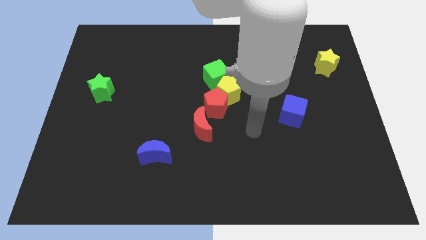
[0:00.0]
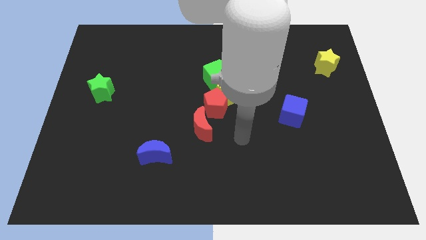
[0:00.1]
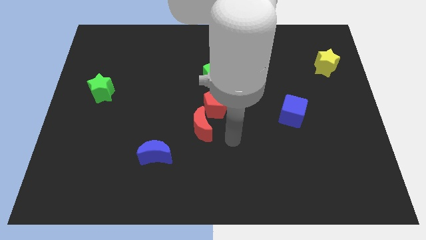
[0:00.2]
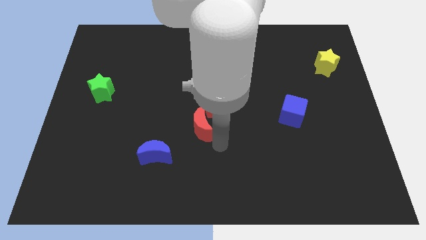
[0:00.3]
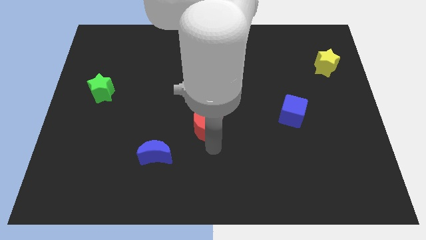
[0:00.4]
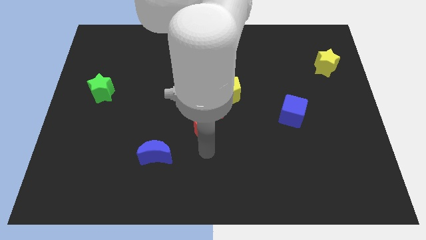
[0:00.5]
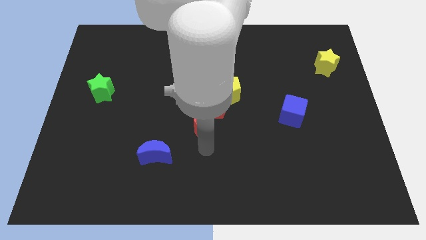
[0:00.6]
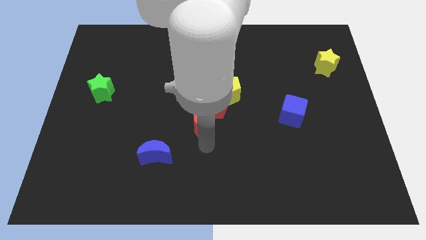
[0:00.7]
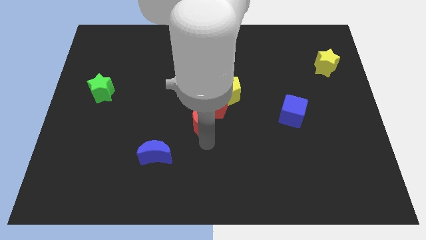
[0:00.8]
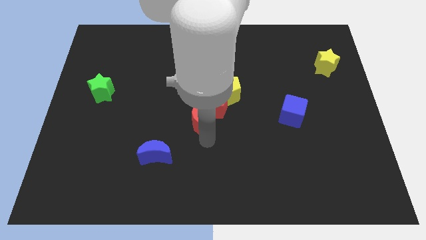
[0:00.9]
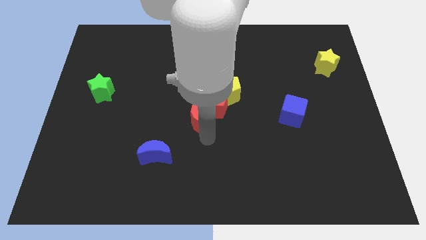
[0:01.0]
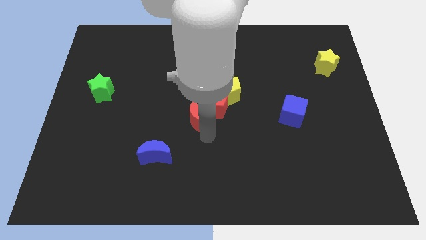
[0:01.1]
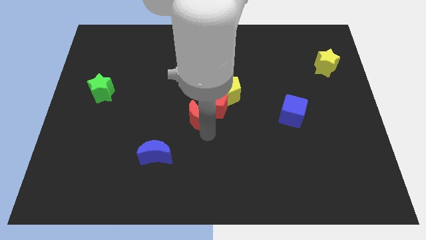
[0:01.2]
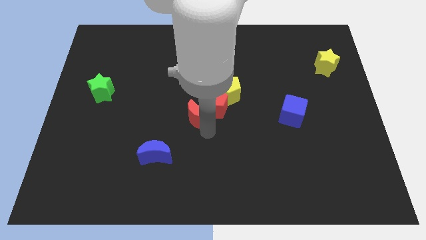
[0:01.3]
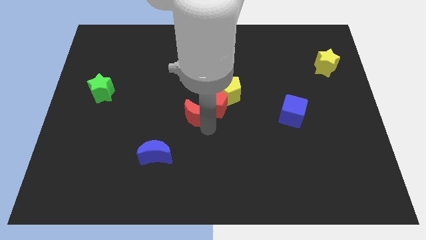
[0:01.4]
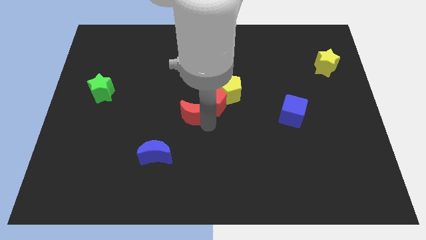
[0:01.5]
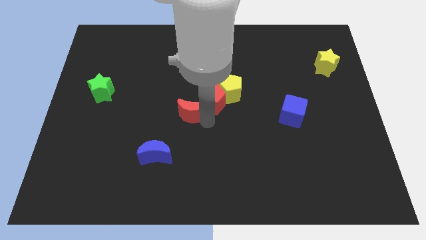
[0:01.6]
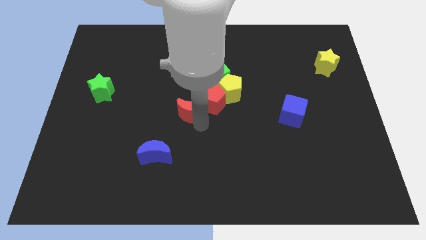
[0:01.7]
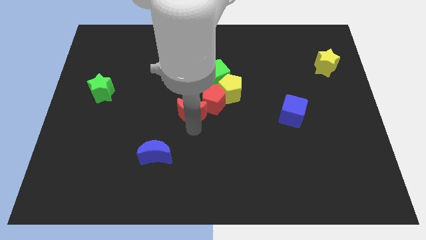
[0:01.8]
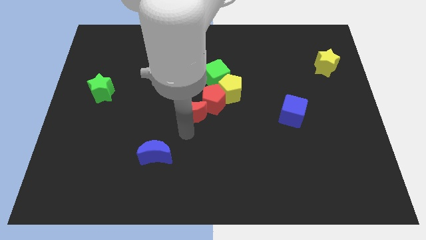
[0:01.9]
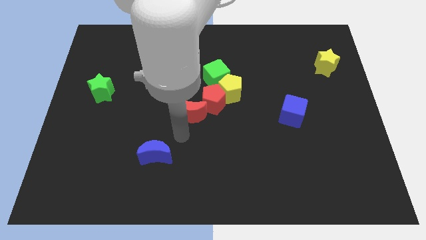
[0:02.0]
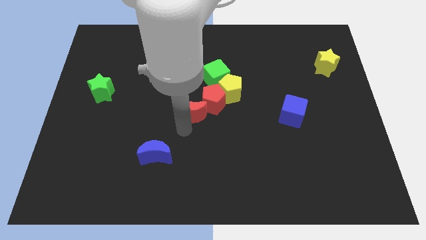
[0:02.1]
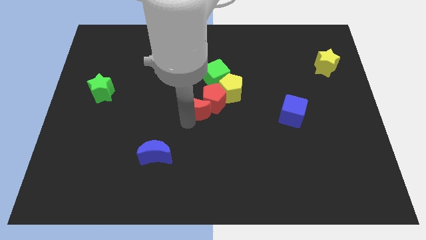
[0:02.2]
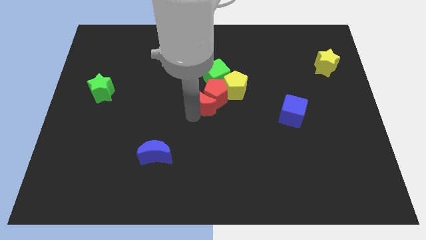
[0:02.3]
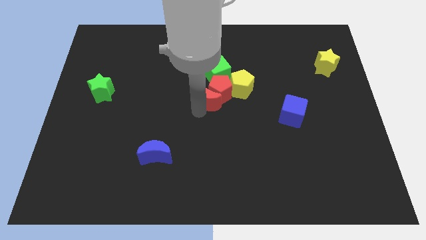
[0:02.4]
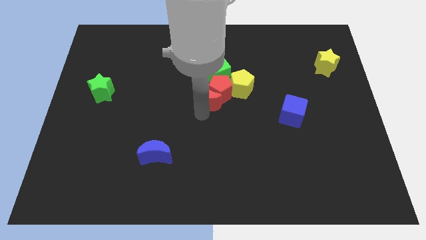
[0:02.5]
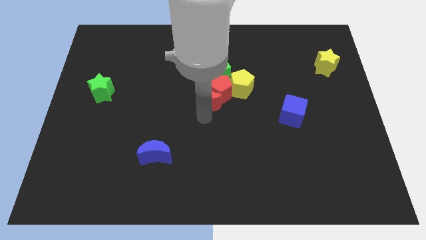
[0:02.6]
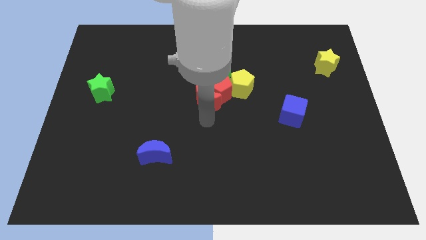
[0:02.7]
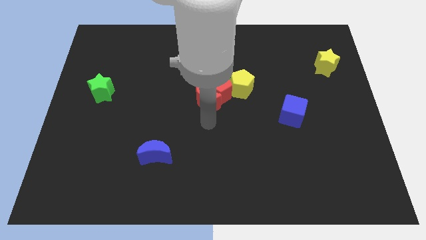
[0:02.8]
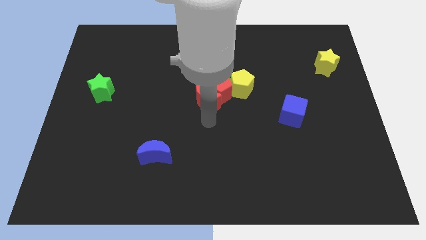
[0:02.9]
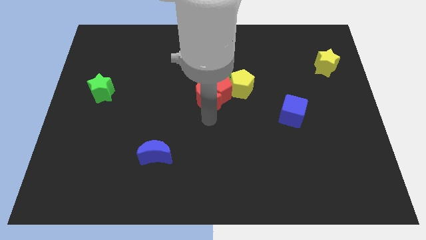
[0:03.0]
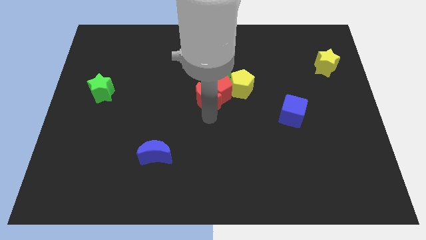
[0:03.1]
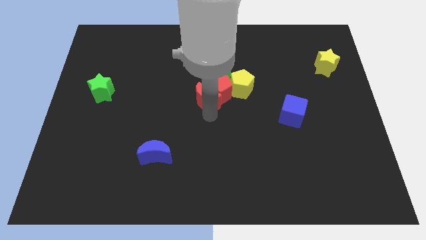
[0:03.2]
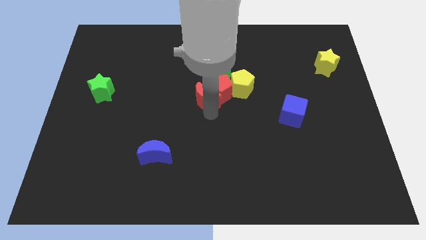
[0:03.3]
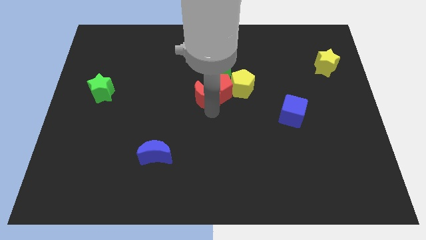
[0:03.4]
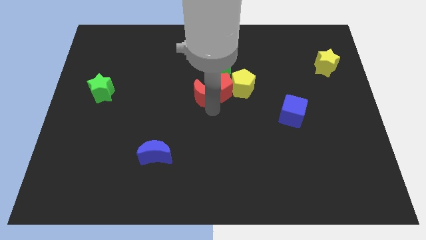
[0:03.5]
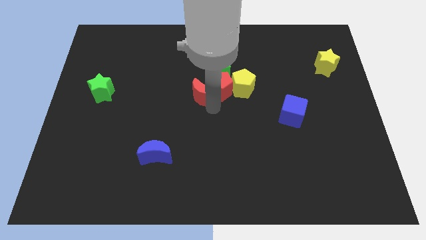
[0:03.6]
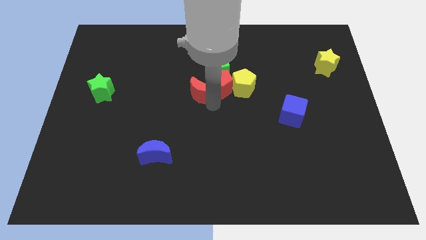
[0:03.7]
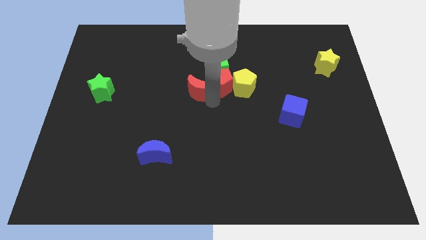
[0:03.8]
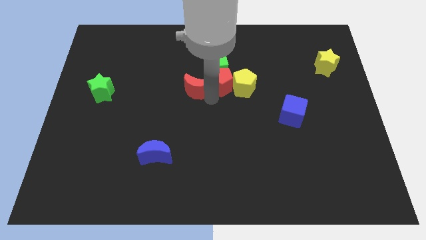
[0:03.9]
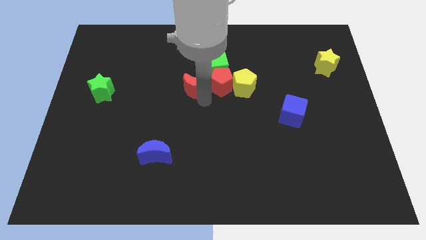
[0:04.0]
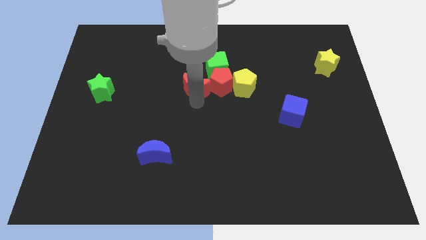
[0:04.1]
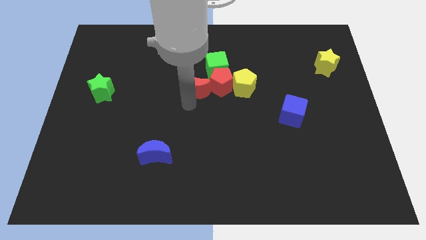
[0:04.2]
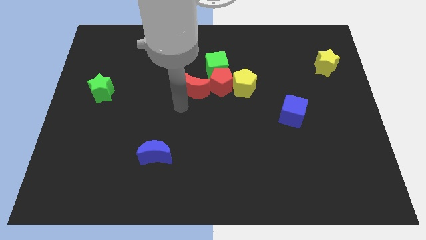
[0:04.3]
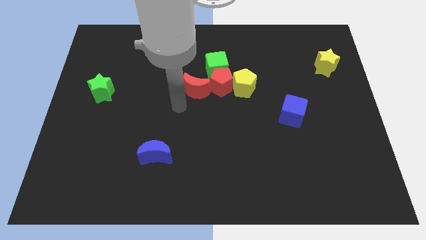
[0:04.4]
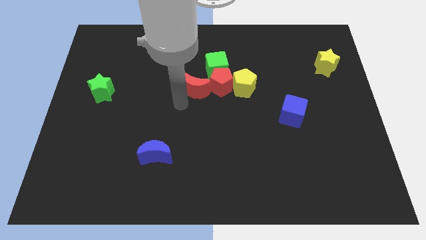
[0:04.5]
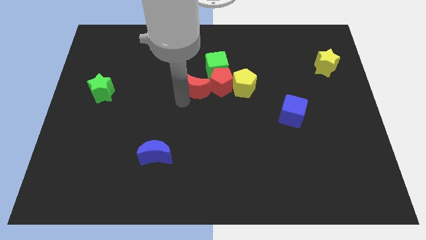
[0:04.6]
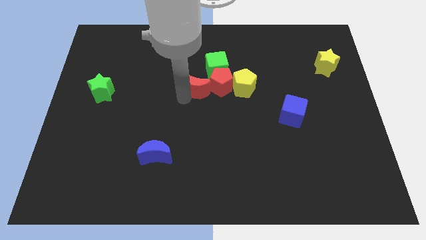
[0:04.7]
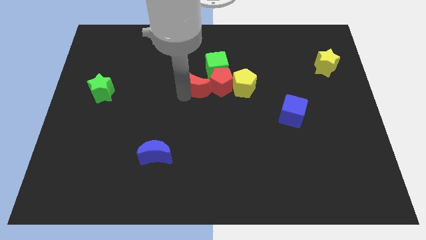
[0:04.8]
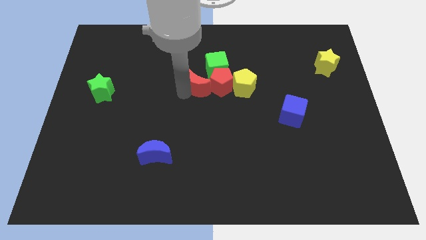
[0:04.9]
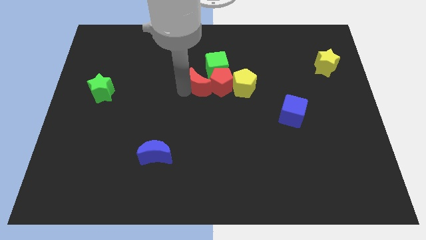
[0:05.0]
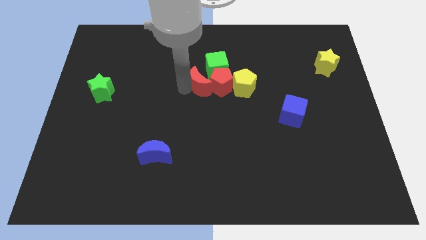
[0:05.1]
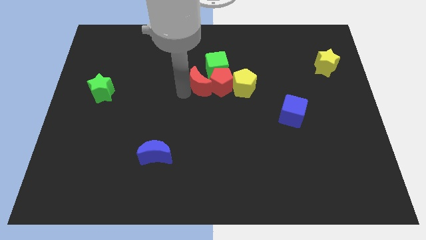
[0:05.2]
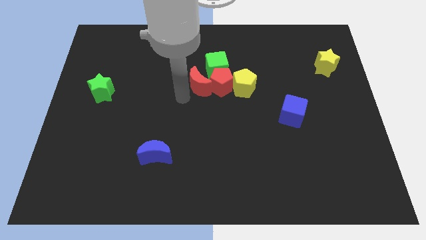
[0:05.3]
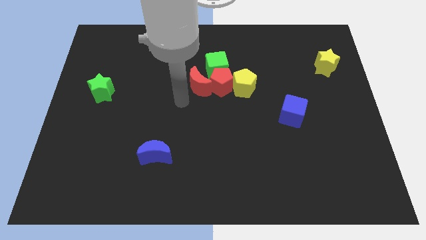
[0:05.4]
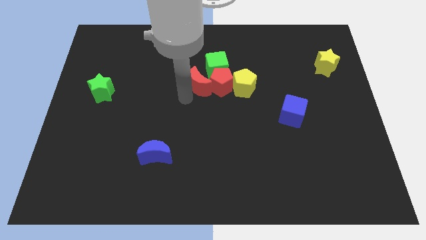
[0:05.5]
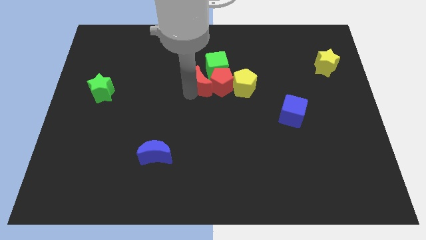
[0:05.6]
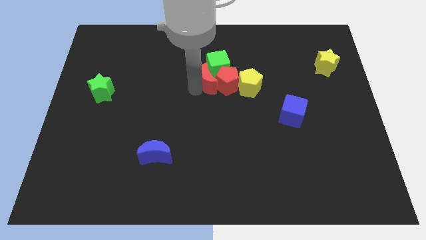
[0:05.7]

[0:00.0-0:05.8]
put the red moon towards the green cube

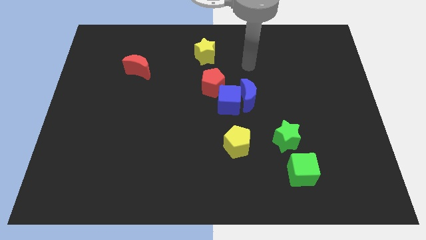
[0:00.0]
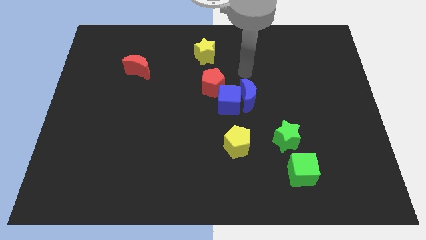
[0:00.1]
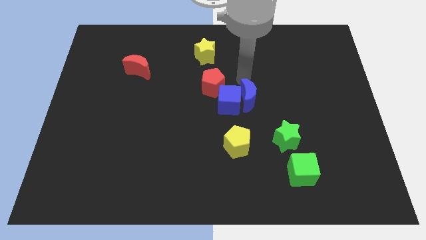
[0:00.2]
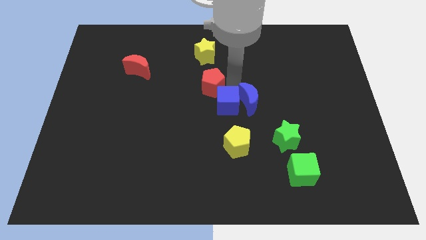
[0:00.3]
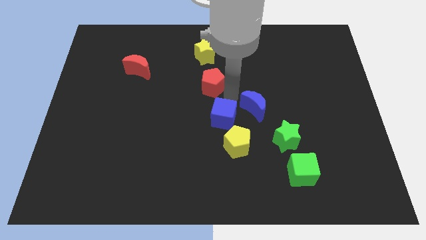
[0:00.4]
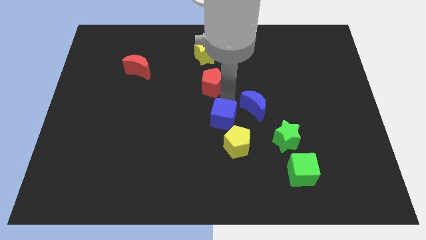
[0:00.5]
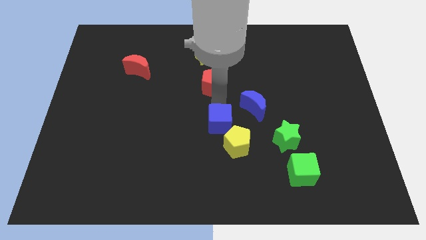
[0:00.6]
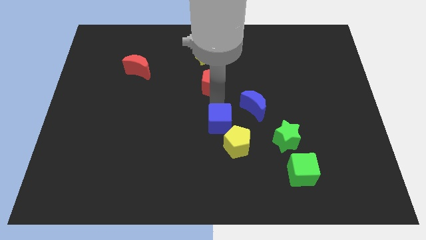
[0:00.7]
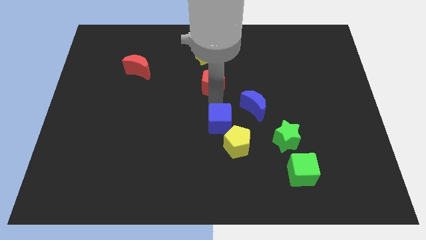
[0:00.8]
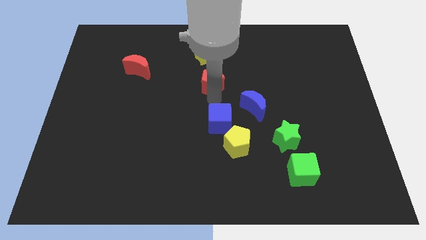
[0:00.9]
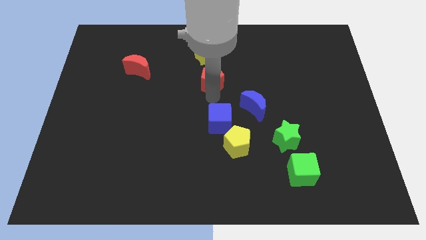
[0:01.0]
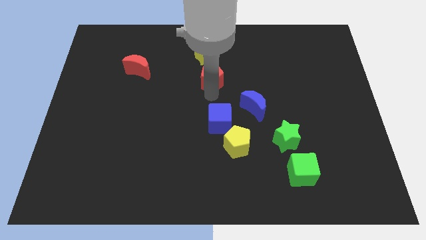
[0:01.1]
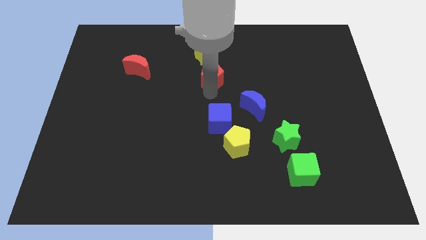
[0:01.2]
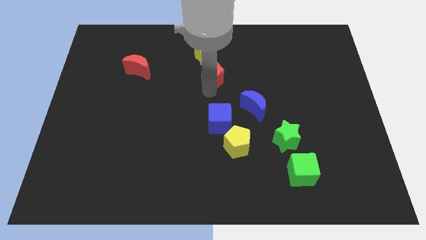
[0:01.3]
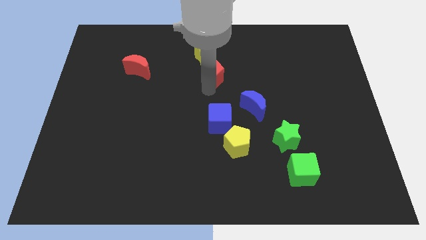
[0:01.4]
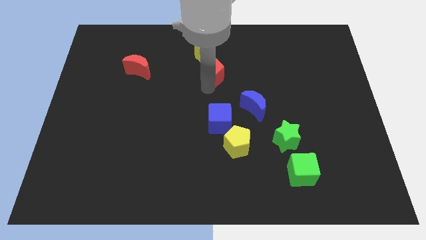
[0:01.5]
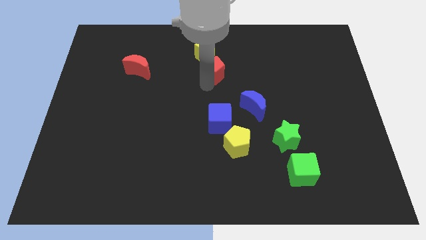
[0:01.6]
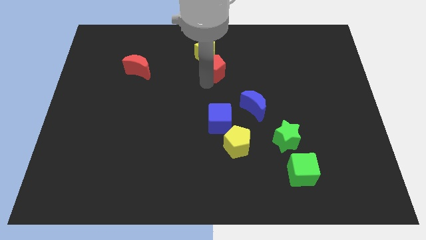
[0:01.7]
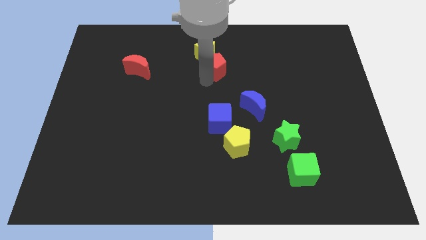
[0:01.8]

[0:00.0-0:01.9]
put the red pentagon towards the yellow star
